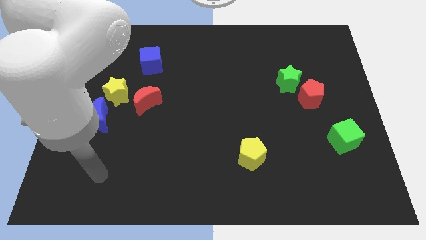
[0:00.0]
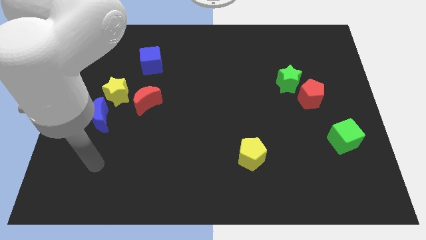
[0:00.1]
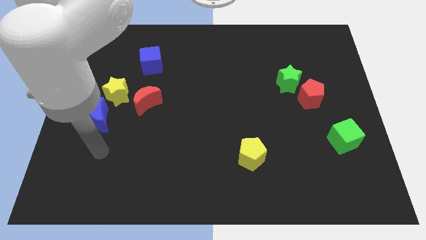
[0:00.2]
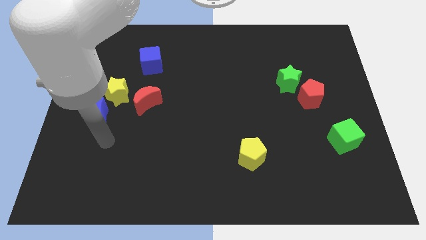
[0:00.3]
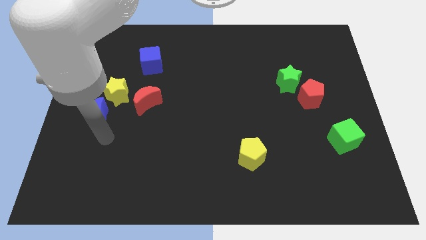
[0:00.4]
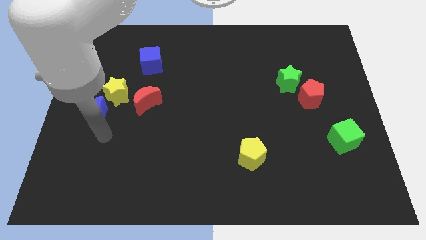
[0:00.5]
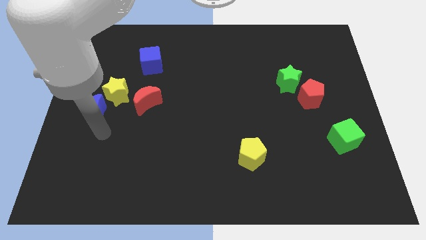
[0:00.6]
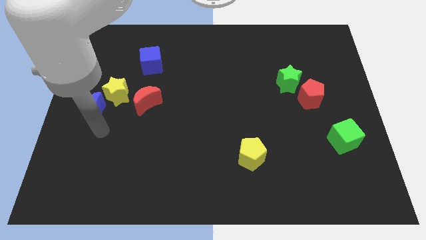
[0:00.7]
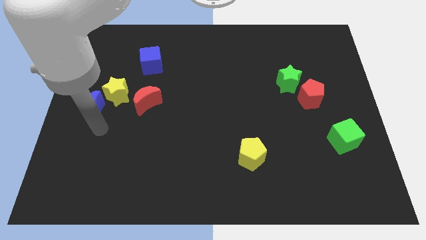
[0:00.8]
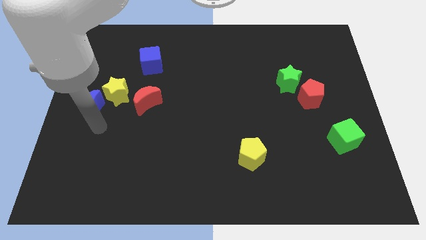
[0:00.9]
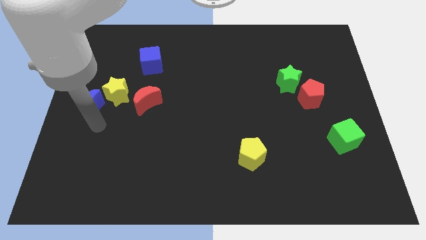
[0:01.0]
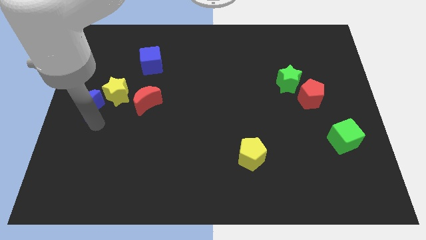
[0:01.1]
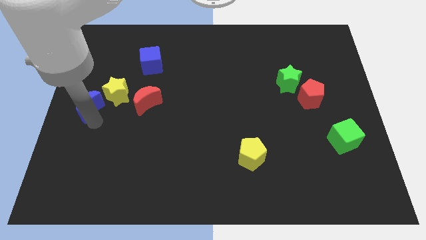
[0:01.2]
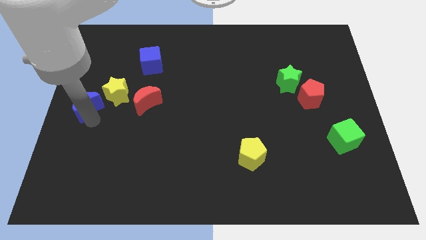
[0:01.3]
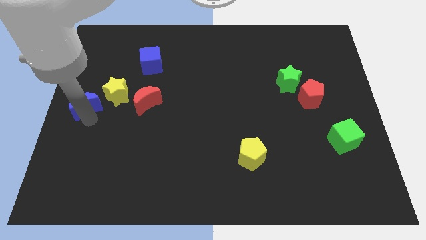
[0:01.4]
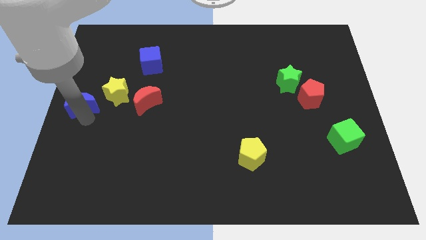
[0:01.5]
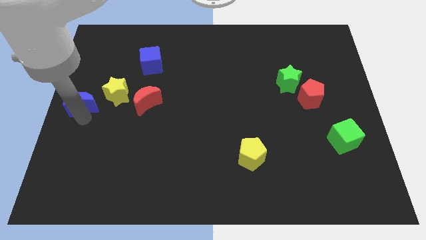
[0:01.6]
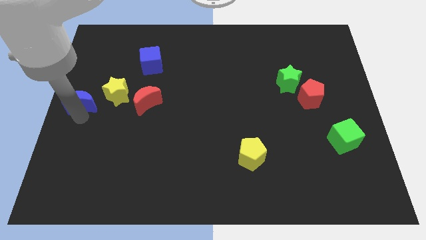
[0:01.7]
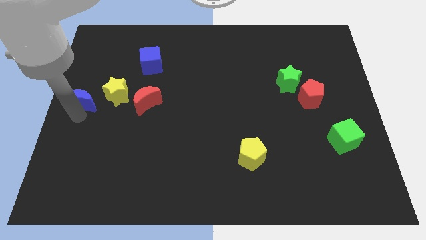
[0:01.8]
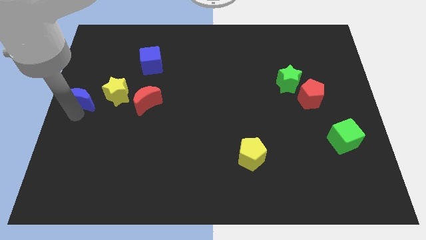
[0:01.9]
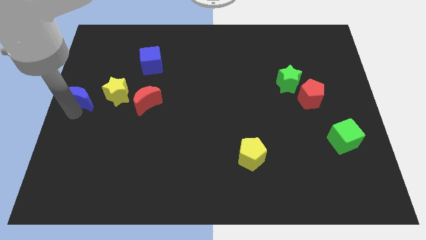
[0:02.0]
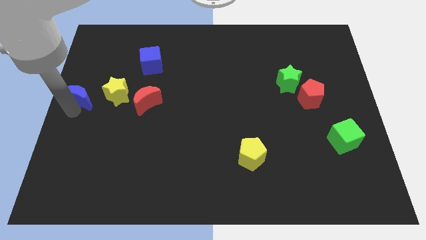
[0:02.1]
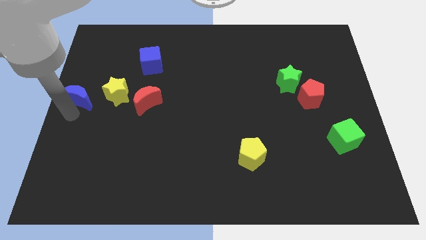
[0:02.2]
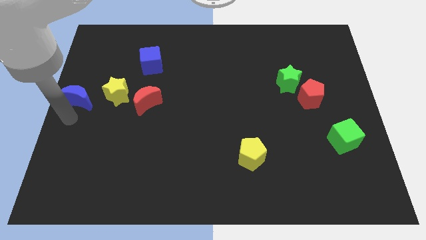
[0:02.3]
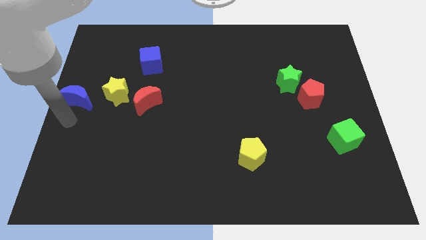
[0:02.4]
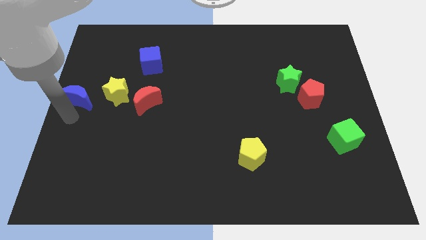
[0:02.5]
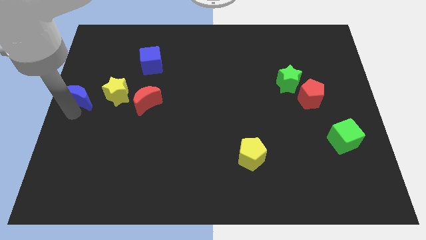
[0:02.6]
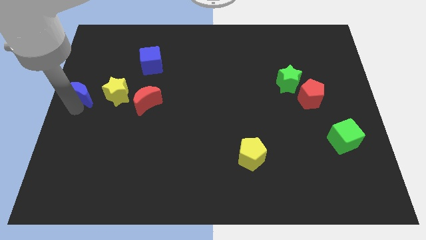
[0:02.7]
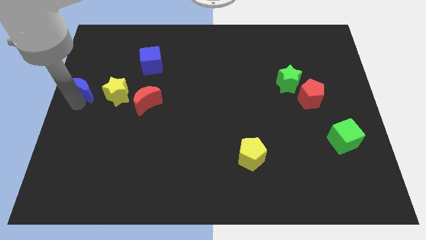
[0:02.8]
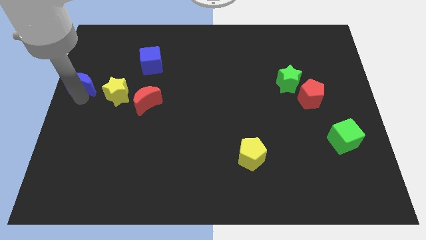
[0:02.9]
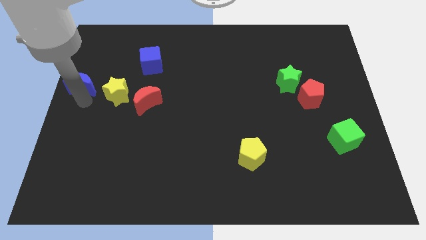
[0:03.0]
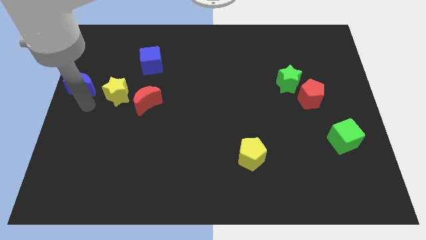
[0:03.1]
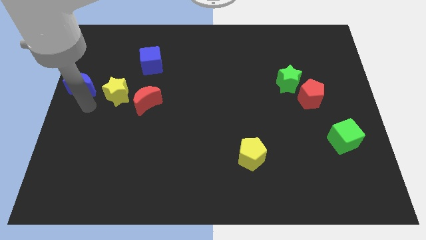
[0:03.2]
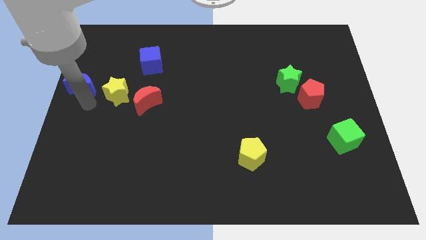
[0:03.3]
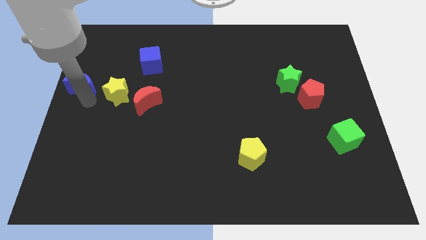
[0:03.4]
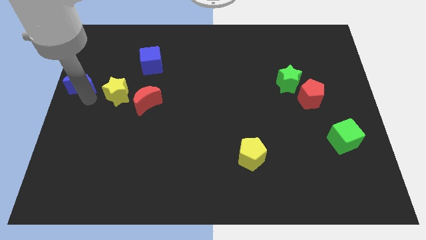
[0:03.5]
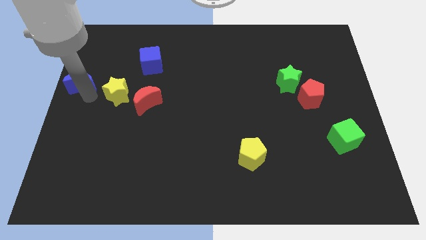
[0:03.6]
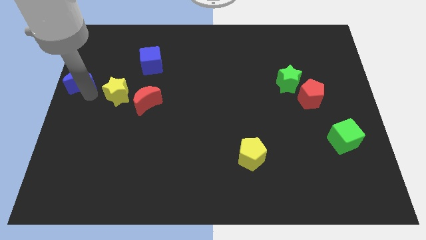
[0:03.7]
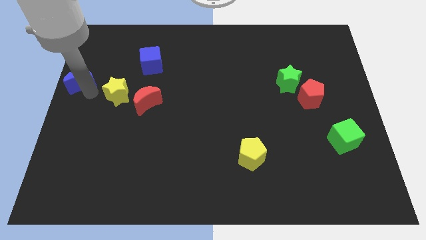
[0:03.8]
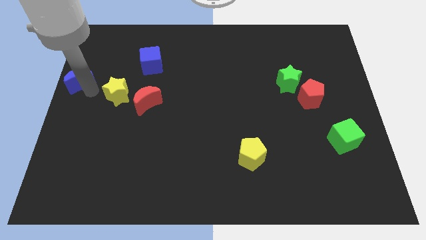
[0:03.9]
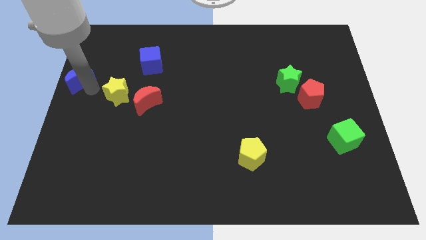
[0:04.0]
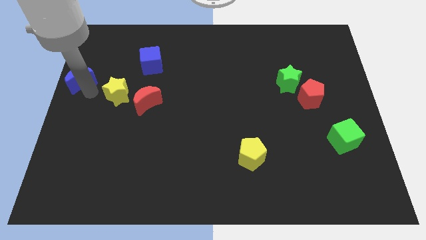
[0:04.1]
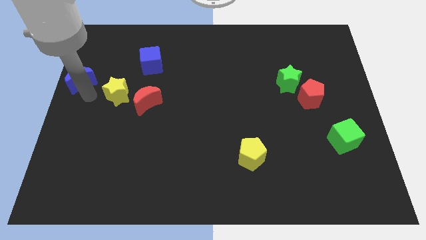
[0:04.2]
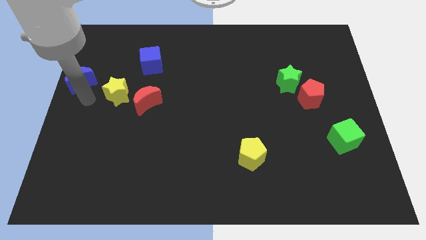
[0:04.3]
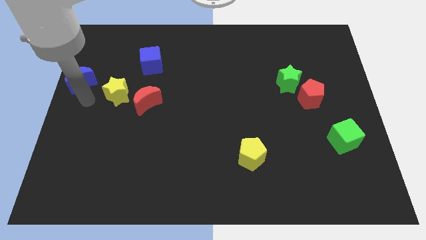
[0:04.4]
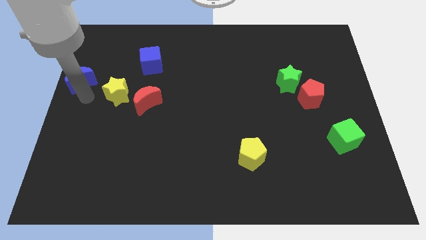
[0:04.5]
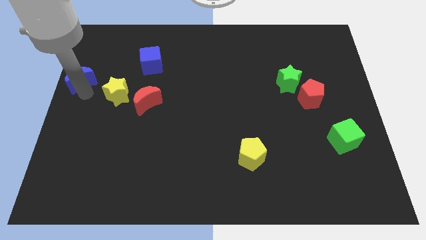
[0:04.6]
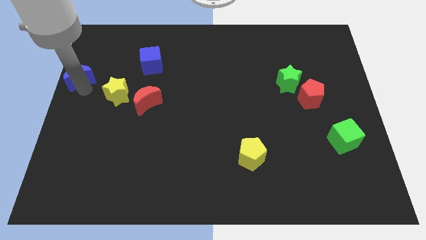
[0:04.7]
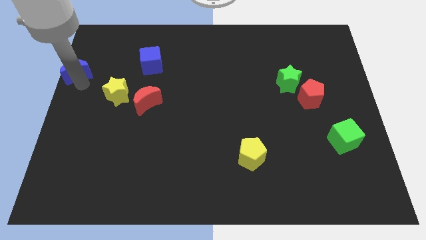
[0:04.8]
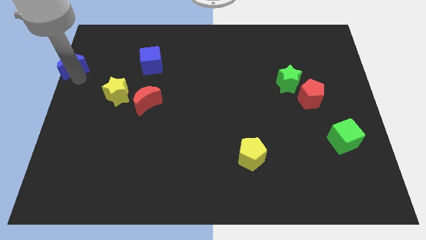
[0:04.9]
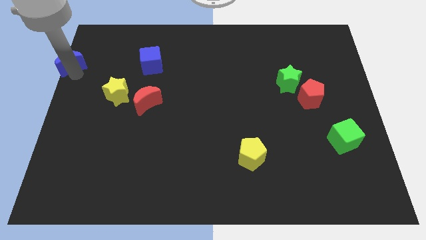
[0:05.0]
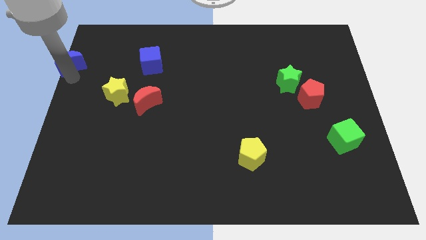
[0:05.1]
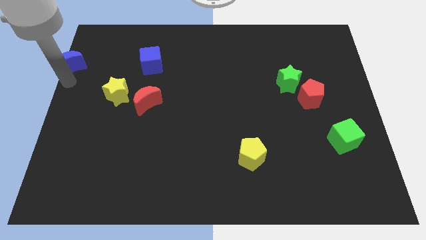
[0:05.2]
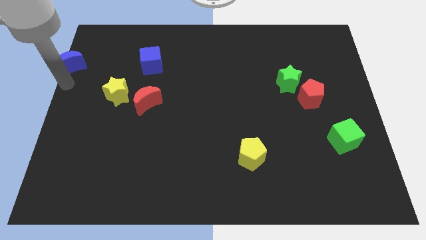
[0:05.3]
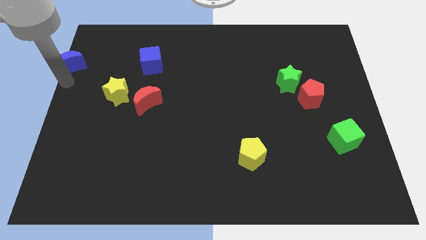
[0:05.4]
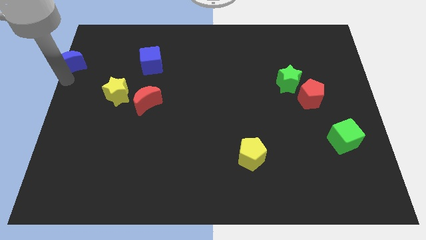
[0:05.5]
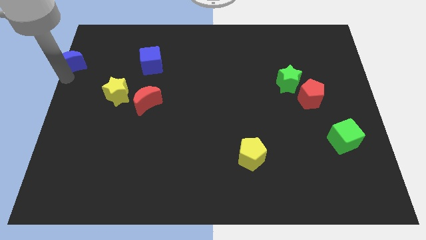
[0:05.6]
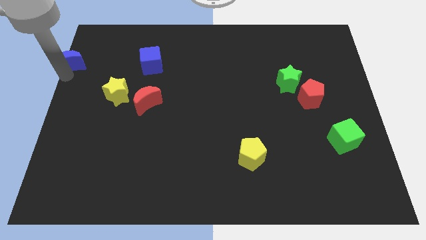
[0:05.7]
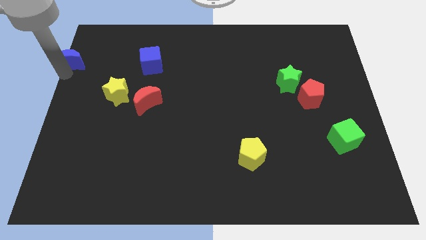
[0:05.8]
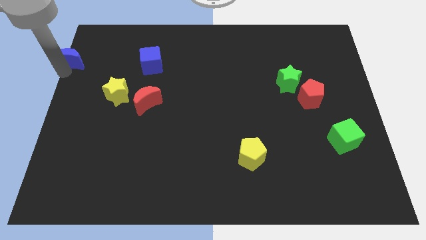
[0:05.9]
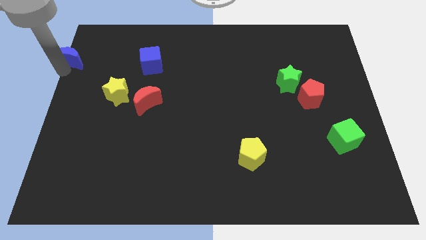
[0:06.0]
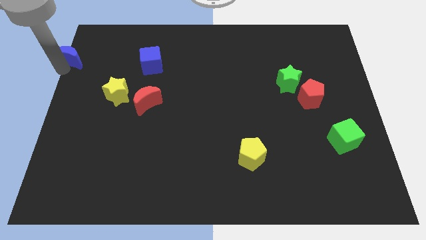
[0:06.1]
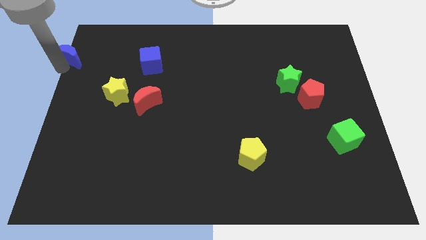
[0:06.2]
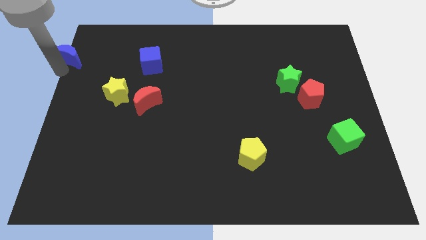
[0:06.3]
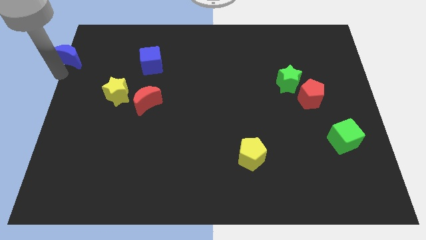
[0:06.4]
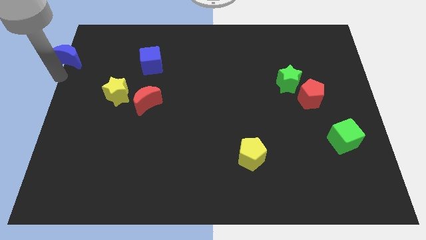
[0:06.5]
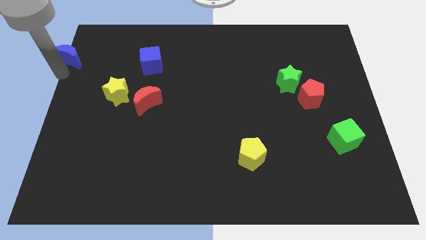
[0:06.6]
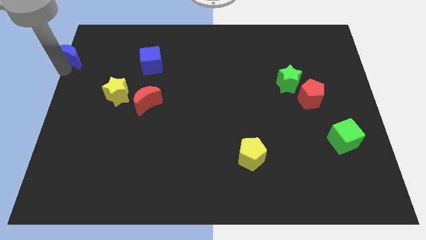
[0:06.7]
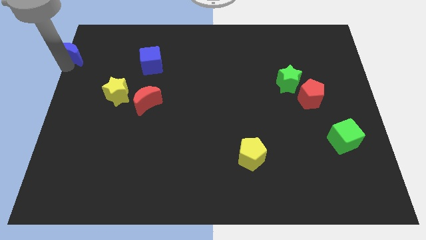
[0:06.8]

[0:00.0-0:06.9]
push the blue moon to the upper left corner
